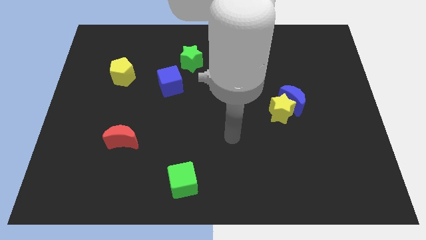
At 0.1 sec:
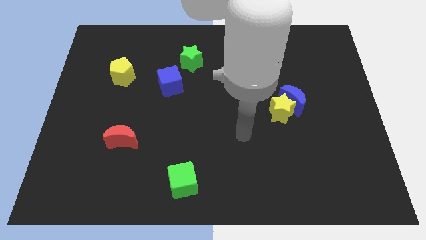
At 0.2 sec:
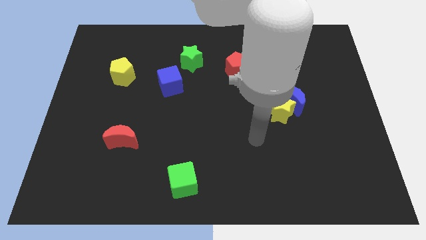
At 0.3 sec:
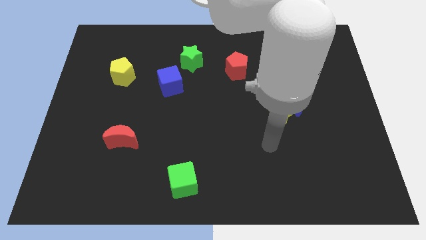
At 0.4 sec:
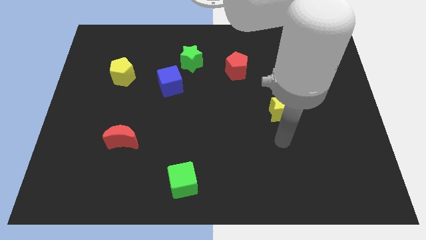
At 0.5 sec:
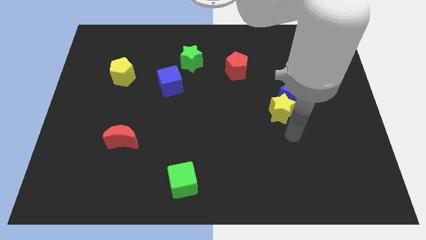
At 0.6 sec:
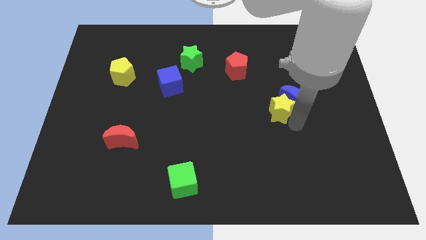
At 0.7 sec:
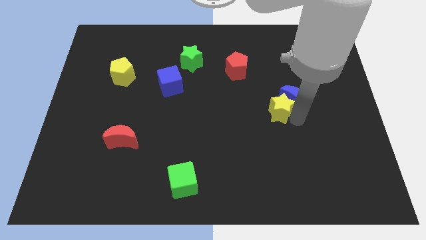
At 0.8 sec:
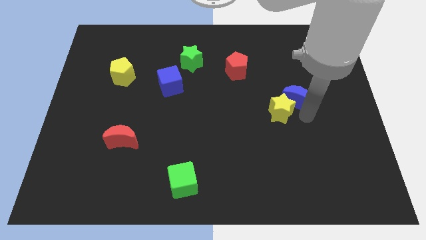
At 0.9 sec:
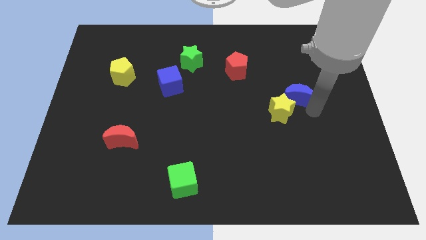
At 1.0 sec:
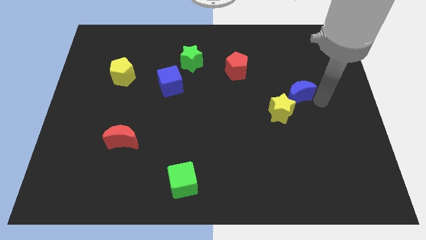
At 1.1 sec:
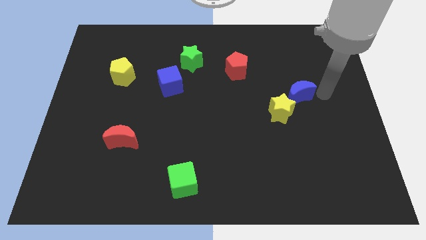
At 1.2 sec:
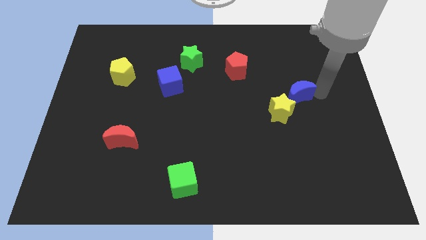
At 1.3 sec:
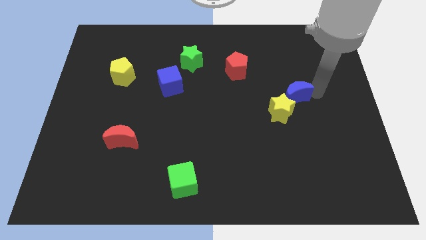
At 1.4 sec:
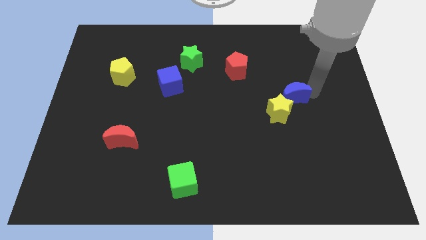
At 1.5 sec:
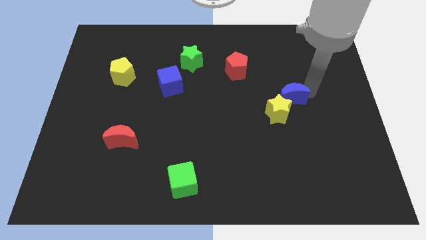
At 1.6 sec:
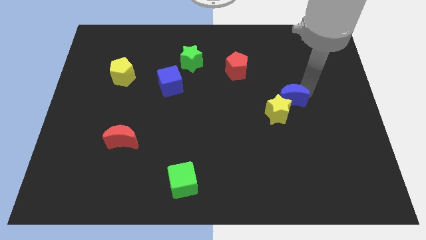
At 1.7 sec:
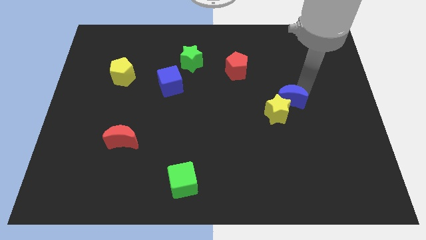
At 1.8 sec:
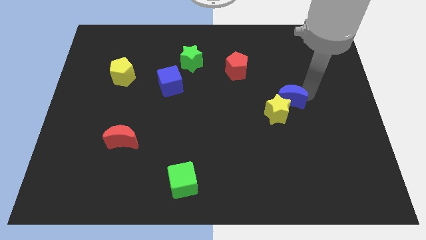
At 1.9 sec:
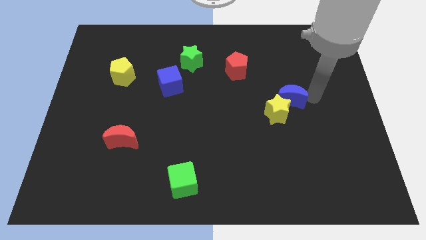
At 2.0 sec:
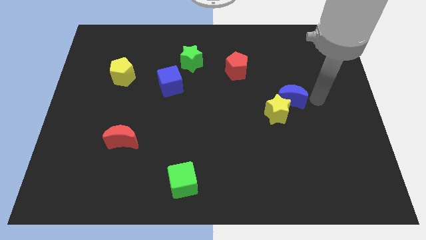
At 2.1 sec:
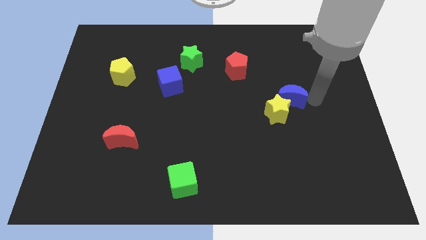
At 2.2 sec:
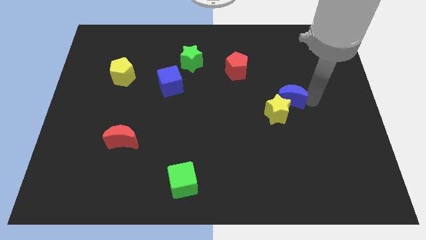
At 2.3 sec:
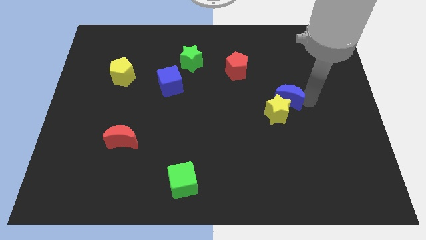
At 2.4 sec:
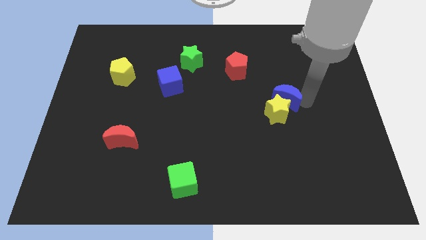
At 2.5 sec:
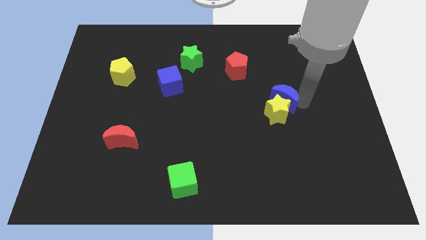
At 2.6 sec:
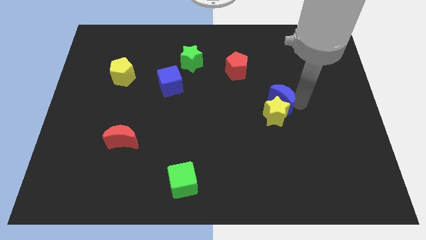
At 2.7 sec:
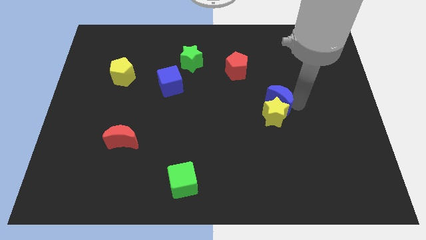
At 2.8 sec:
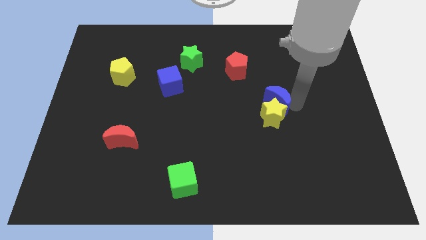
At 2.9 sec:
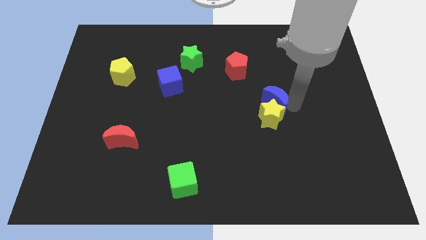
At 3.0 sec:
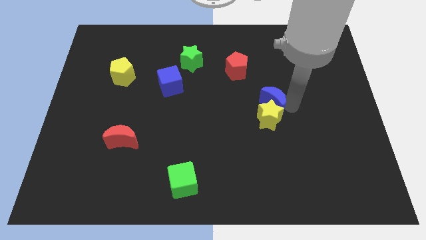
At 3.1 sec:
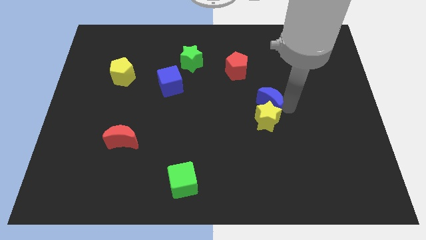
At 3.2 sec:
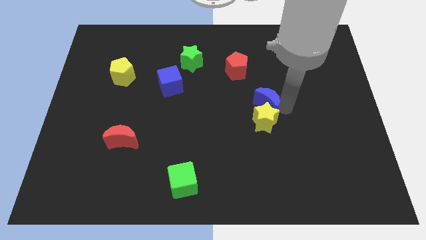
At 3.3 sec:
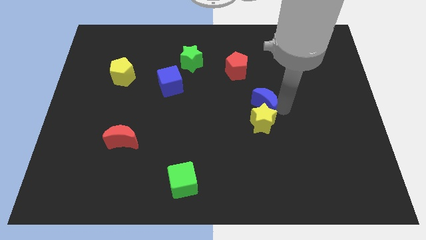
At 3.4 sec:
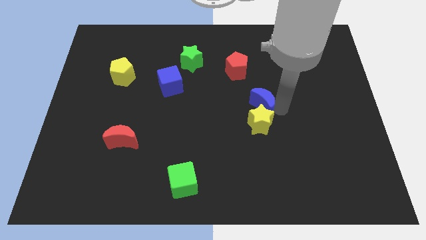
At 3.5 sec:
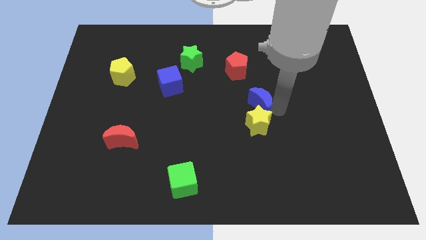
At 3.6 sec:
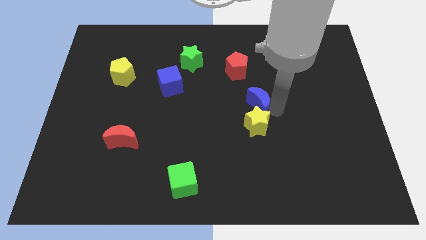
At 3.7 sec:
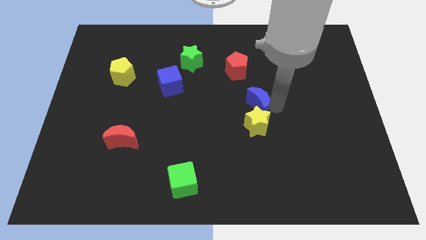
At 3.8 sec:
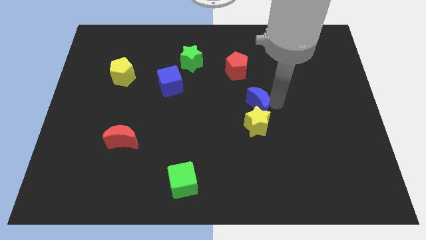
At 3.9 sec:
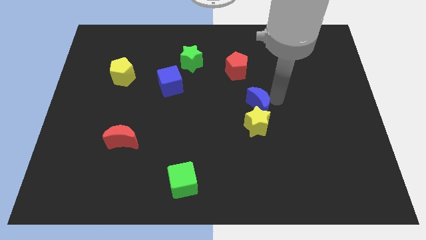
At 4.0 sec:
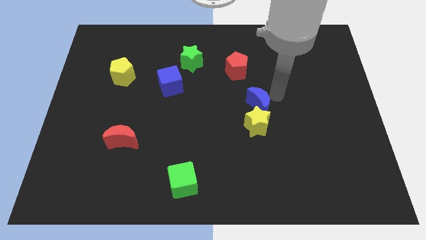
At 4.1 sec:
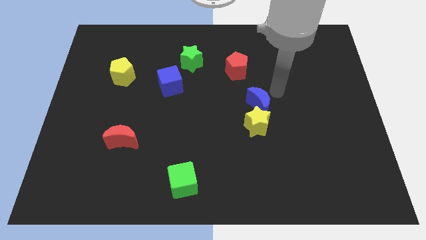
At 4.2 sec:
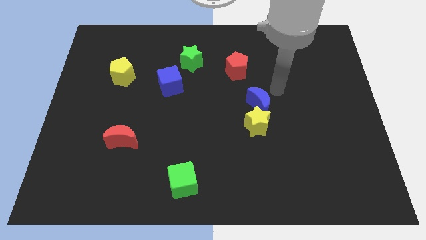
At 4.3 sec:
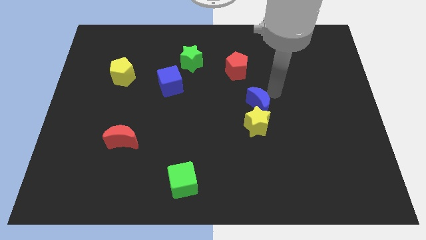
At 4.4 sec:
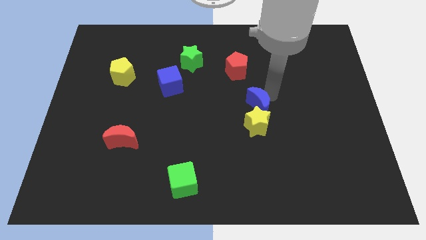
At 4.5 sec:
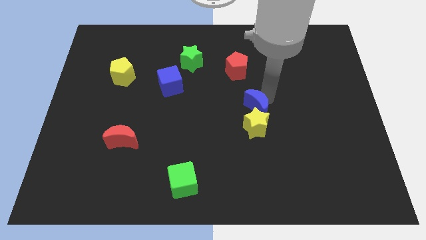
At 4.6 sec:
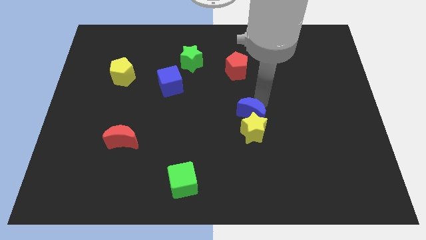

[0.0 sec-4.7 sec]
slightly push the blue moon diagonally downwards and to the left

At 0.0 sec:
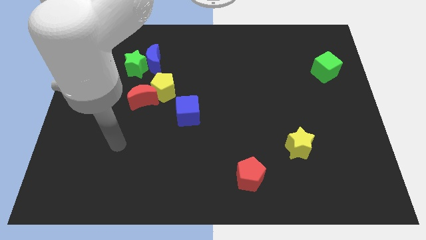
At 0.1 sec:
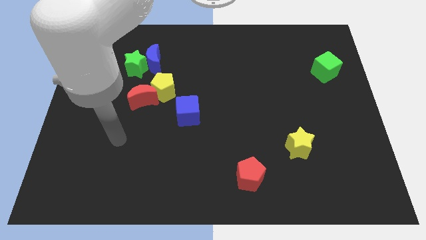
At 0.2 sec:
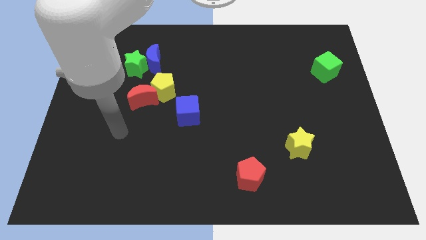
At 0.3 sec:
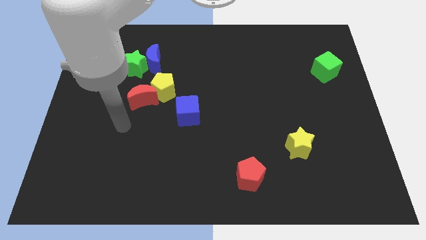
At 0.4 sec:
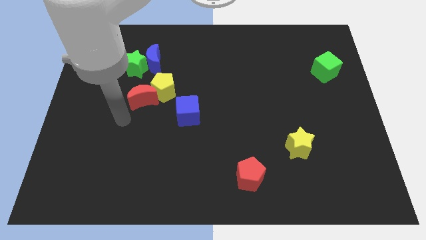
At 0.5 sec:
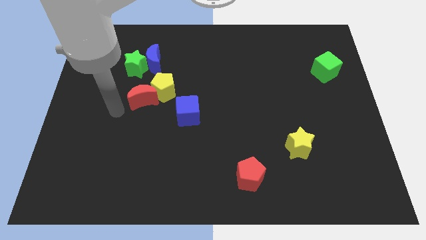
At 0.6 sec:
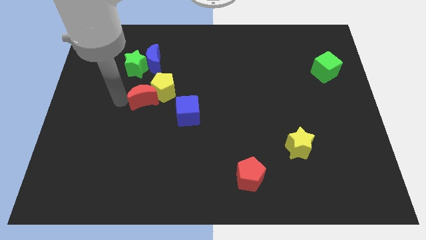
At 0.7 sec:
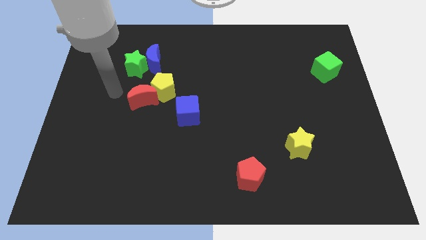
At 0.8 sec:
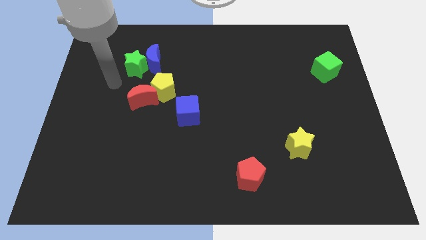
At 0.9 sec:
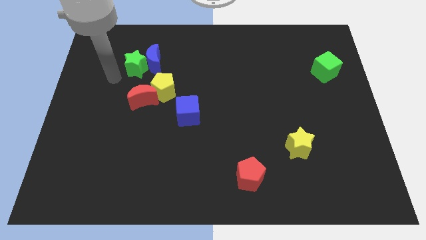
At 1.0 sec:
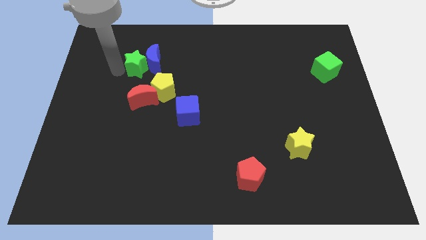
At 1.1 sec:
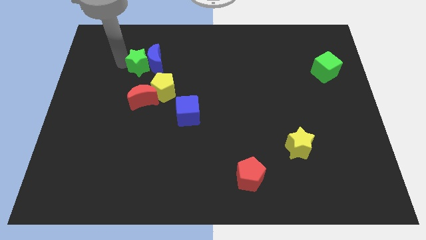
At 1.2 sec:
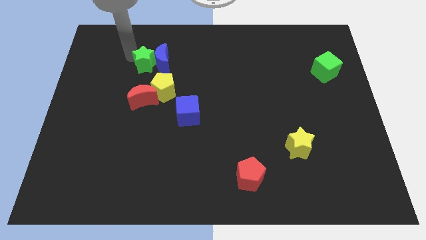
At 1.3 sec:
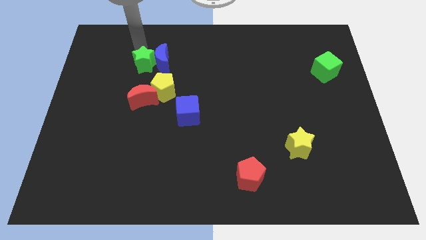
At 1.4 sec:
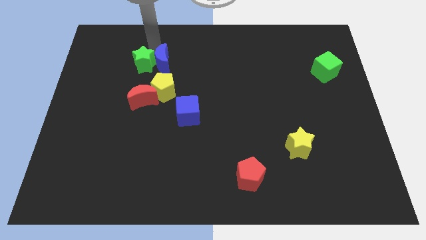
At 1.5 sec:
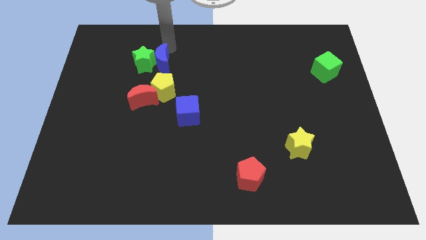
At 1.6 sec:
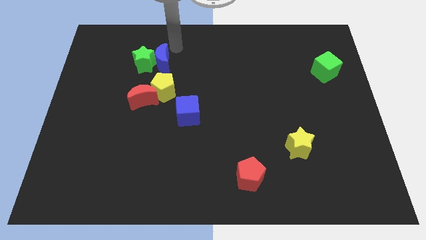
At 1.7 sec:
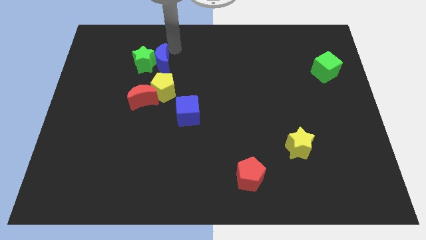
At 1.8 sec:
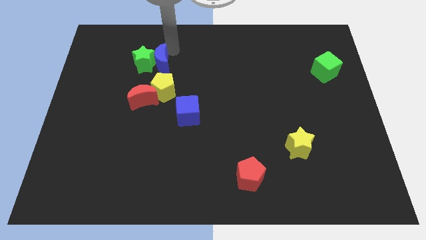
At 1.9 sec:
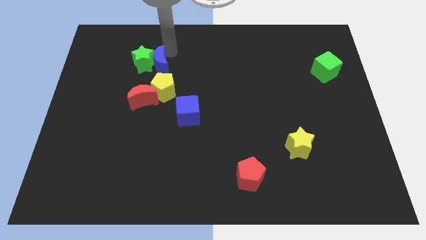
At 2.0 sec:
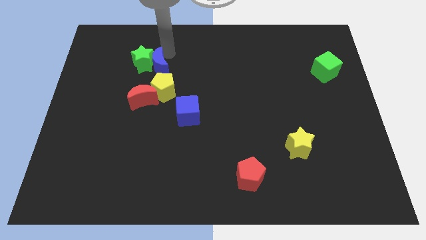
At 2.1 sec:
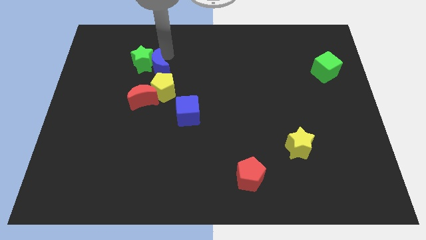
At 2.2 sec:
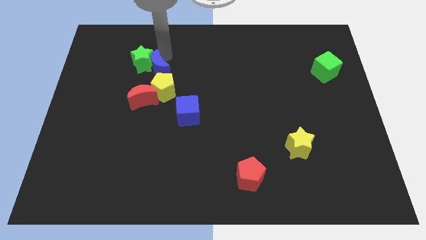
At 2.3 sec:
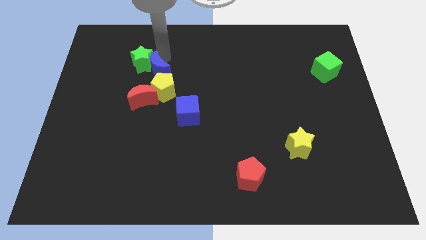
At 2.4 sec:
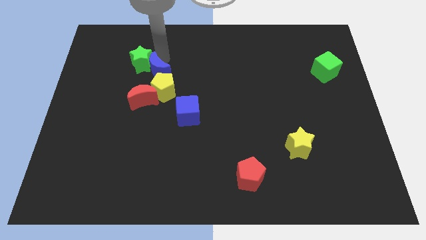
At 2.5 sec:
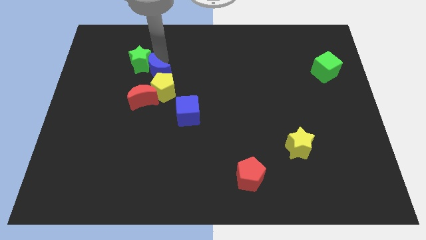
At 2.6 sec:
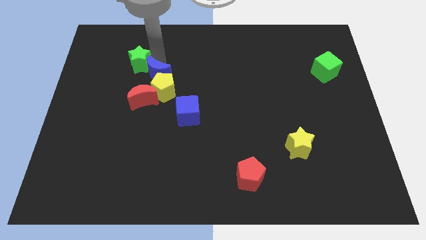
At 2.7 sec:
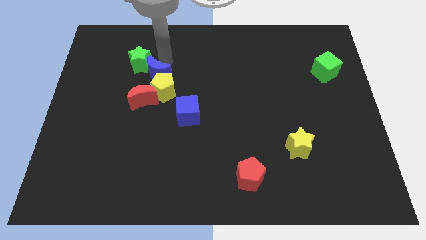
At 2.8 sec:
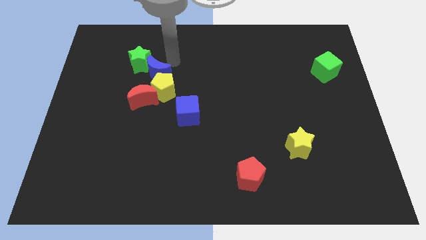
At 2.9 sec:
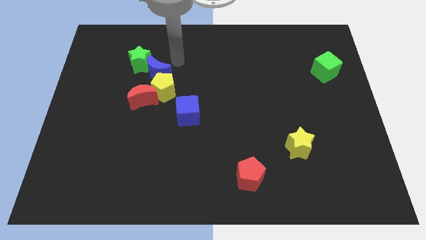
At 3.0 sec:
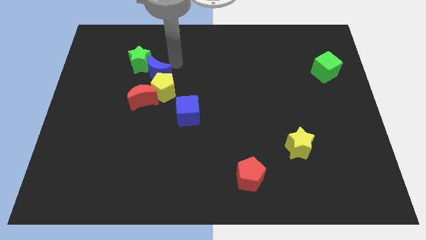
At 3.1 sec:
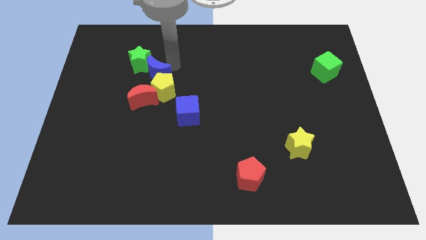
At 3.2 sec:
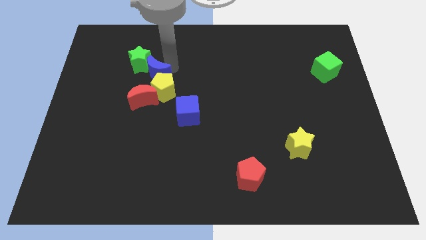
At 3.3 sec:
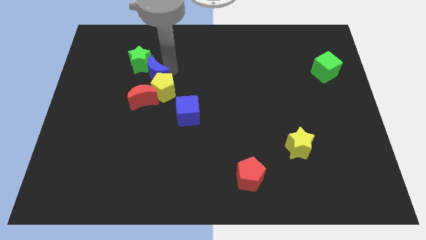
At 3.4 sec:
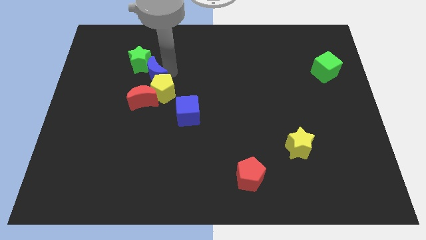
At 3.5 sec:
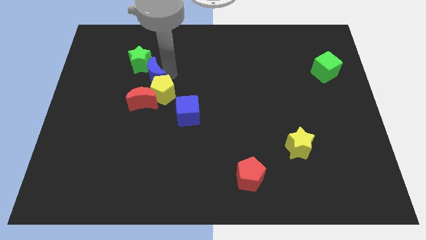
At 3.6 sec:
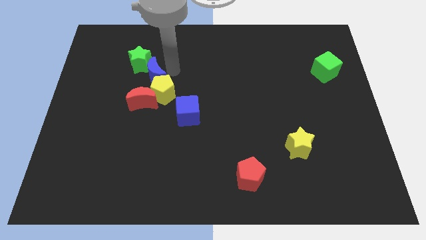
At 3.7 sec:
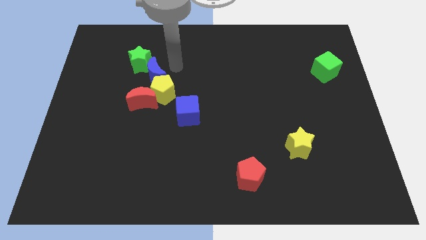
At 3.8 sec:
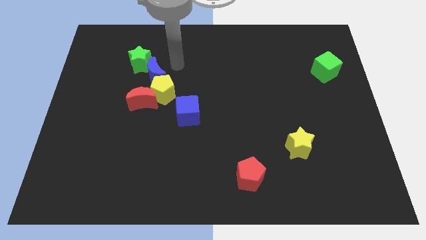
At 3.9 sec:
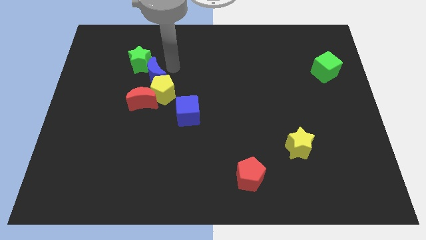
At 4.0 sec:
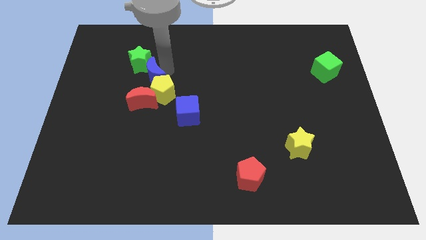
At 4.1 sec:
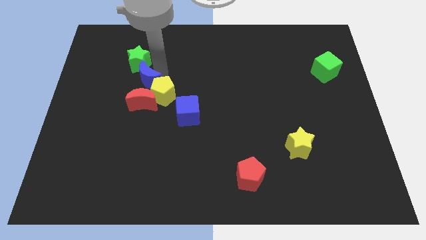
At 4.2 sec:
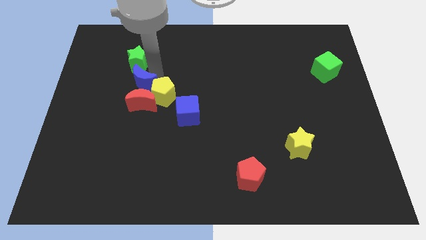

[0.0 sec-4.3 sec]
move the blue moon down slightly
